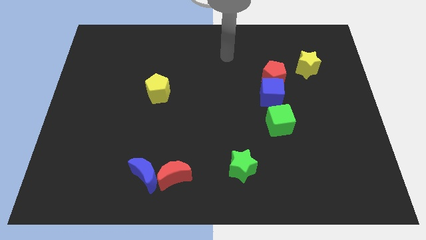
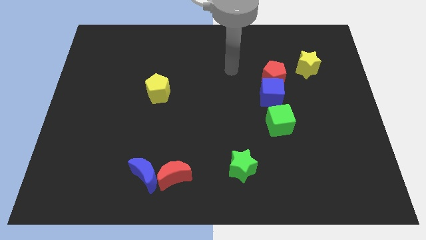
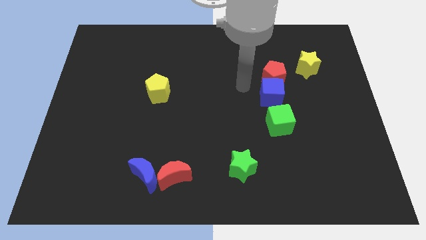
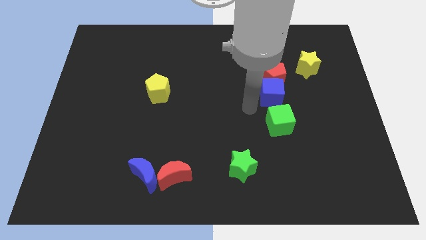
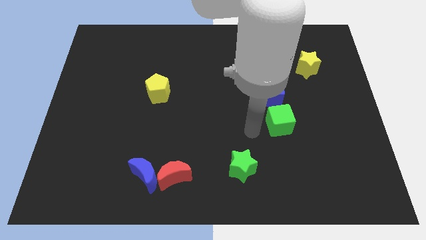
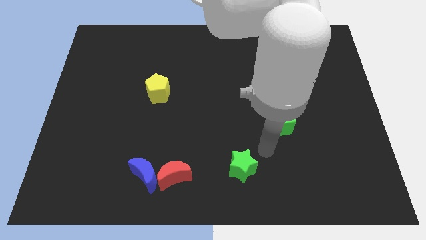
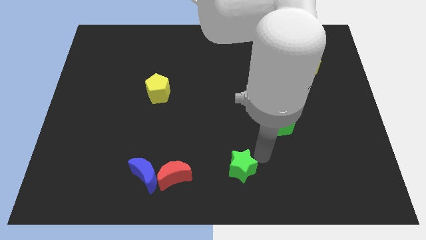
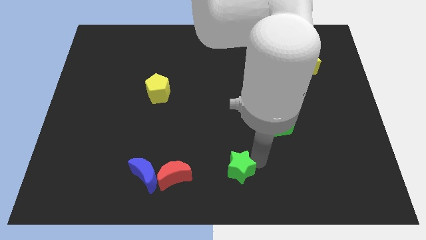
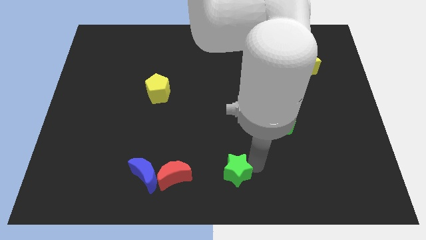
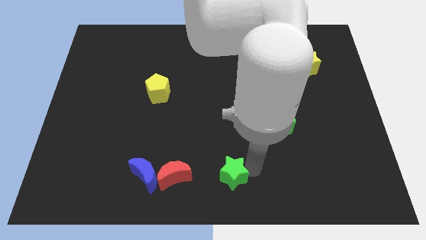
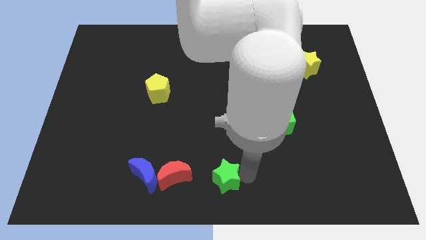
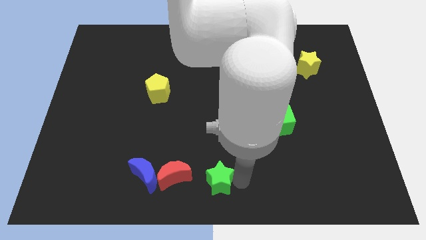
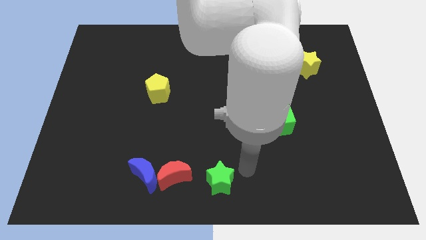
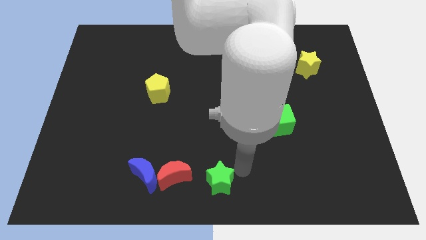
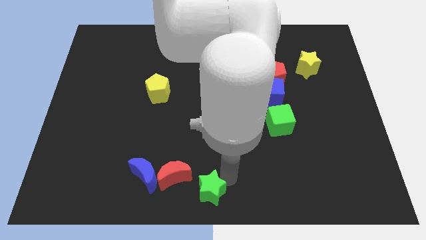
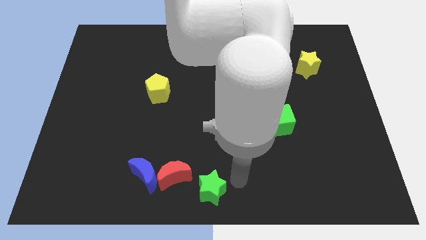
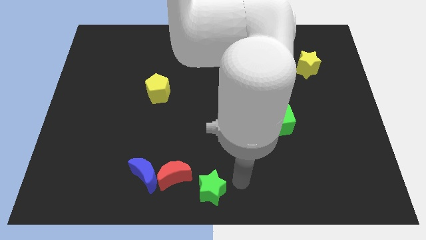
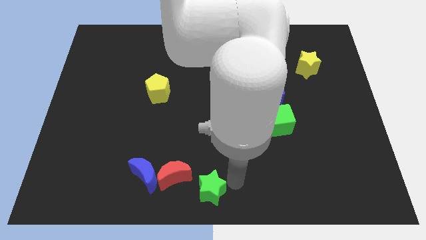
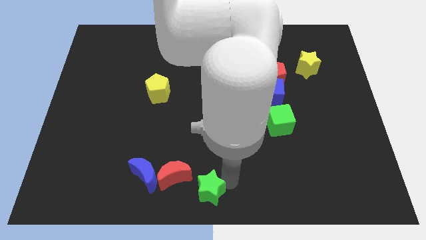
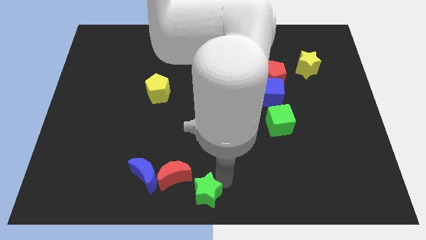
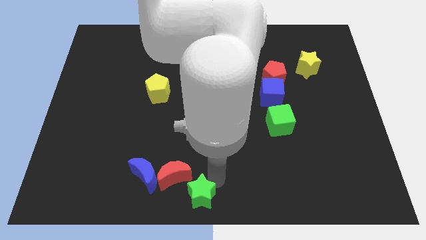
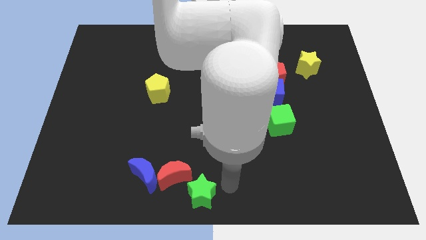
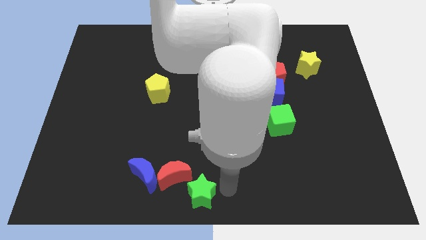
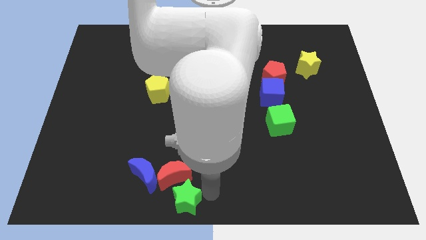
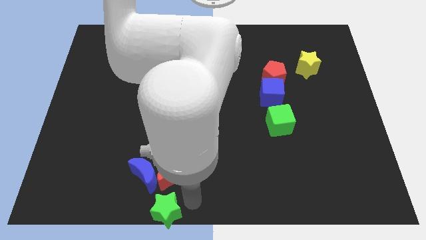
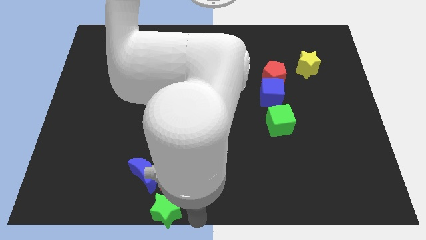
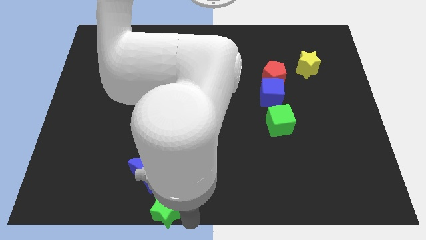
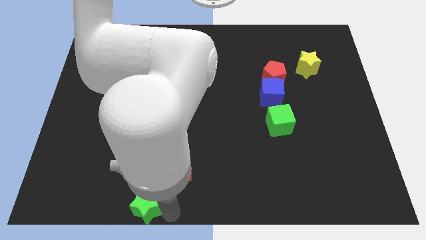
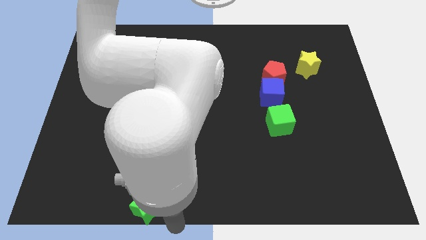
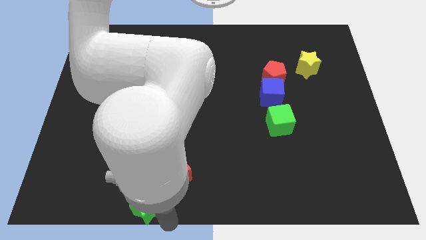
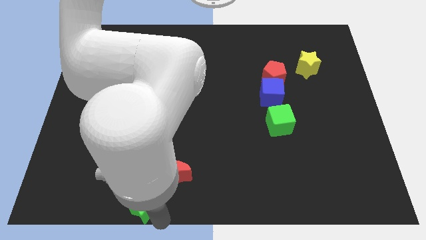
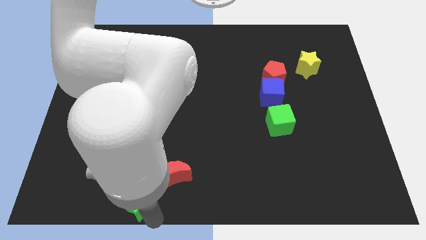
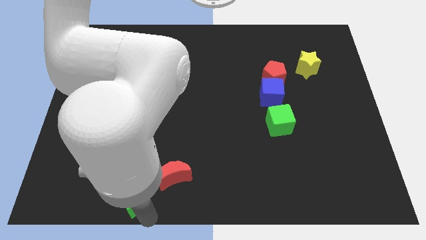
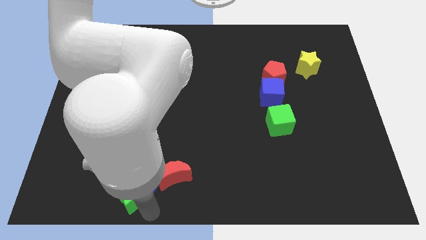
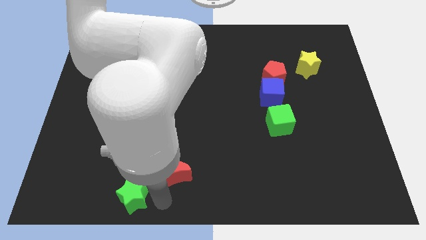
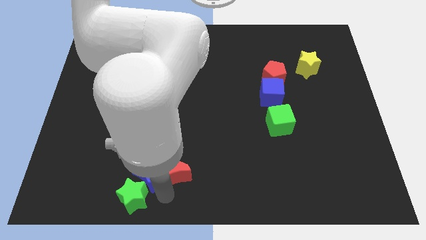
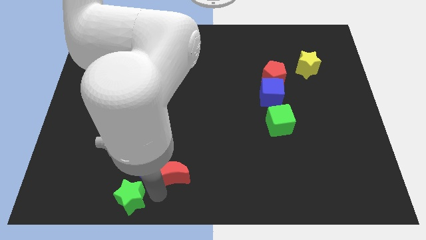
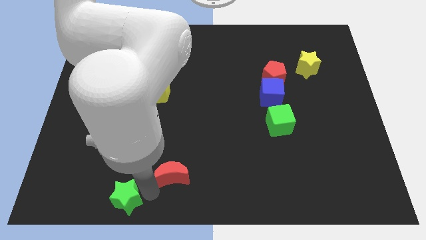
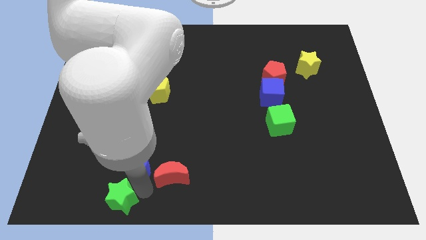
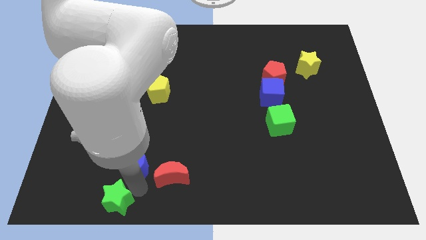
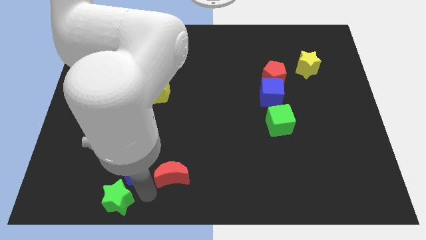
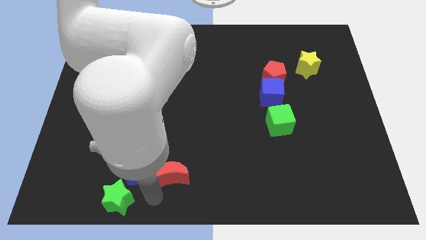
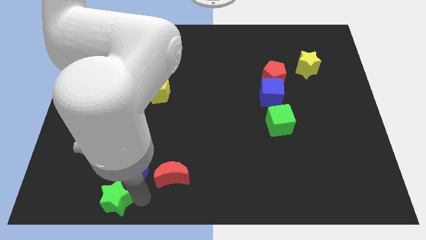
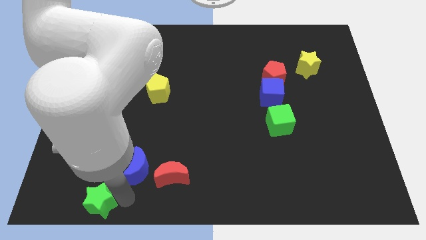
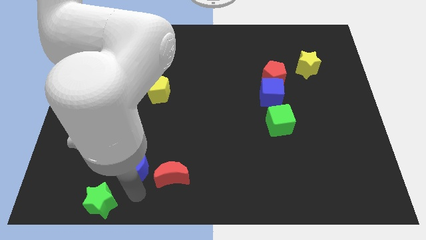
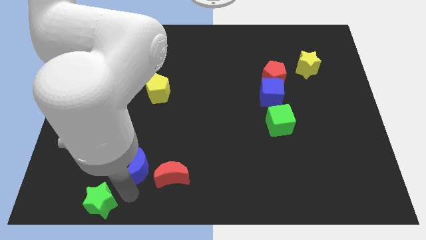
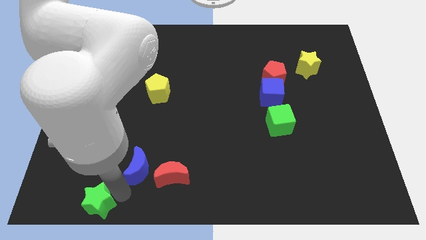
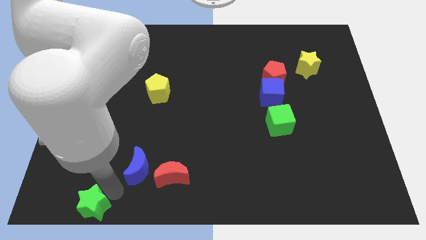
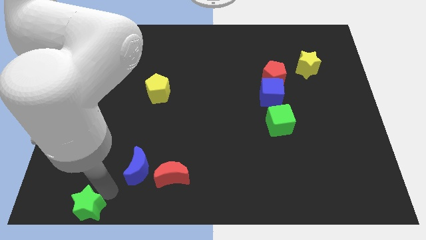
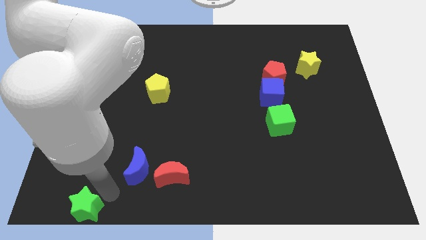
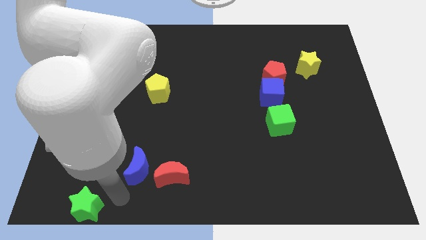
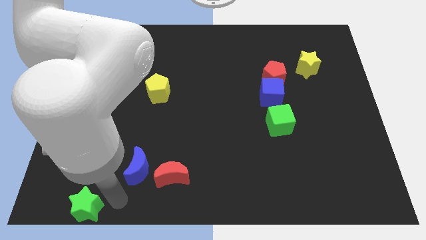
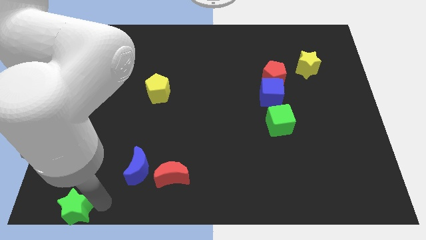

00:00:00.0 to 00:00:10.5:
slide the green star to the bottom left corner

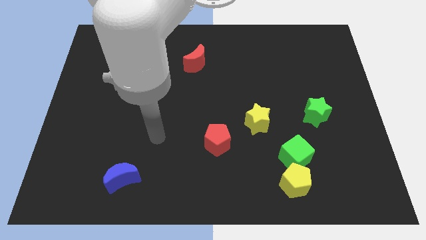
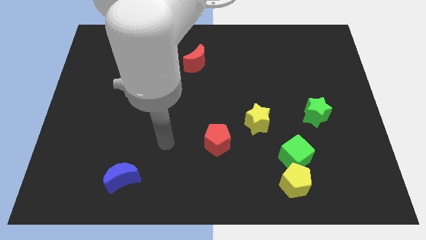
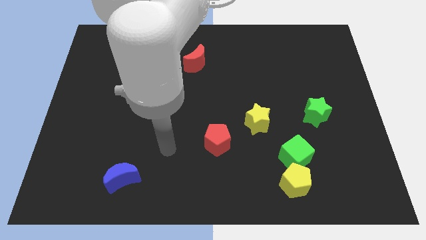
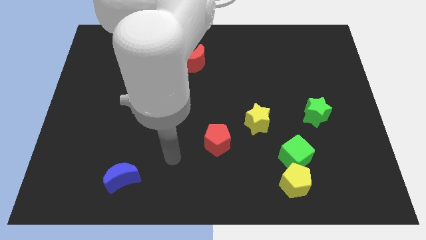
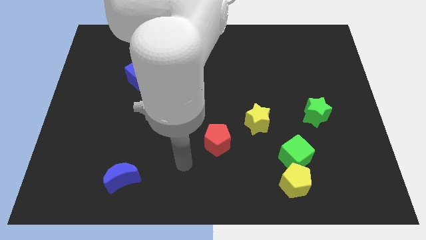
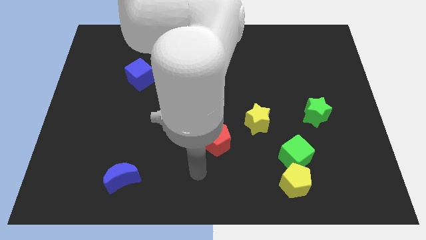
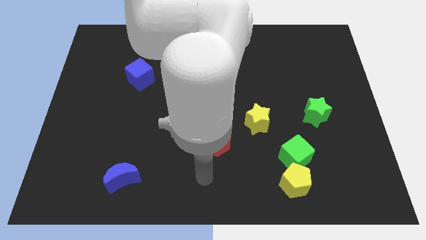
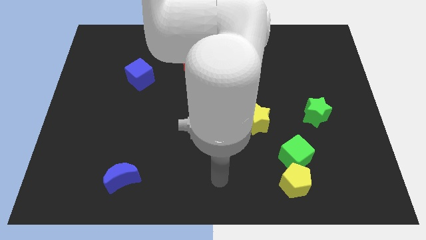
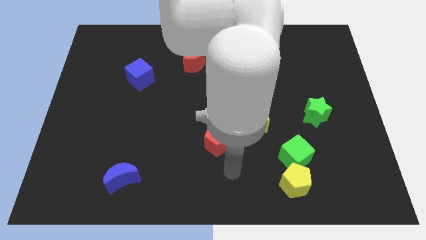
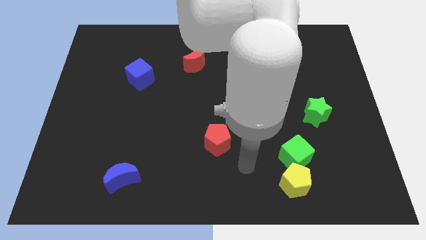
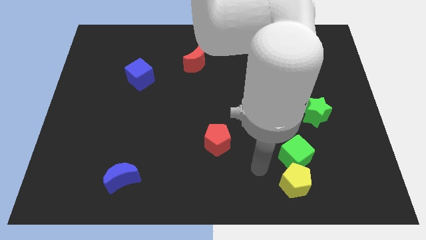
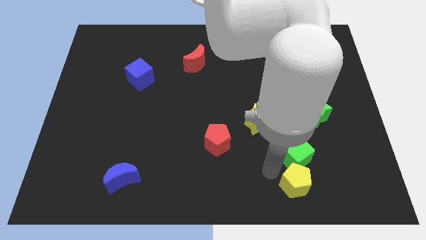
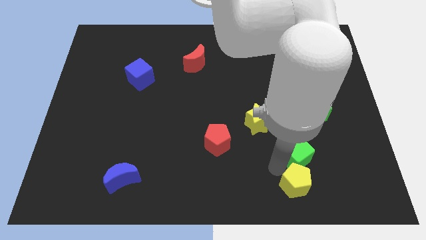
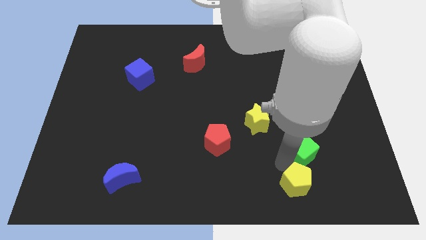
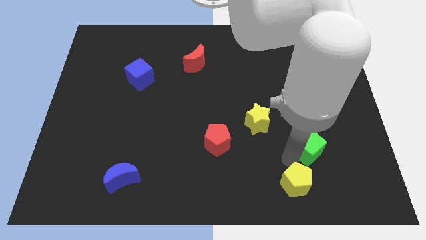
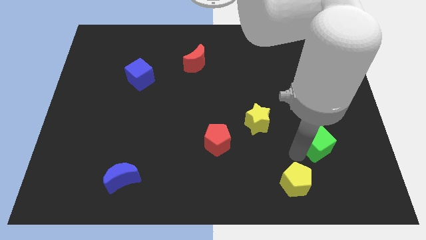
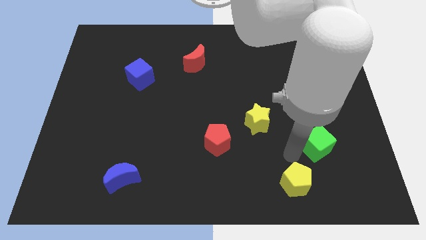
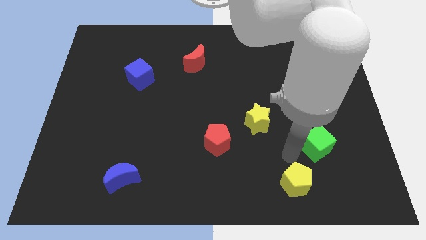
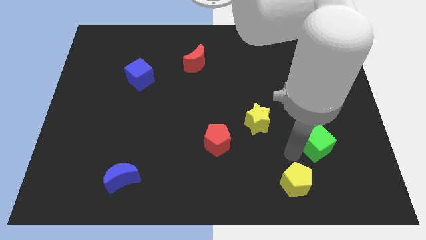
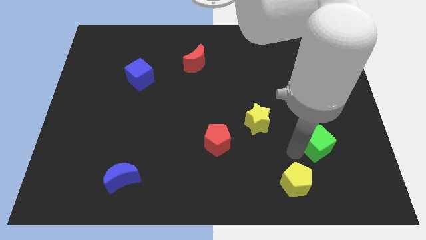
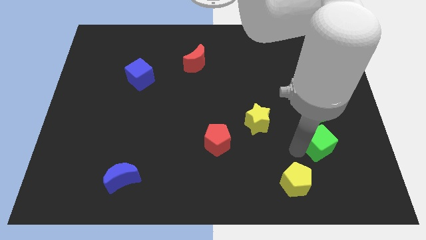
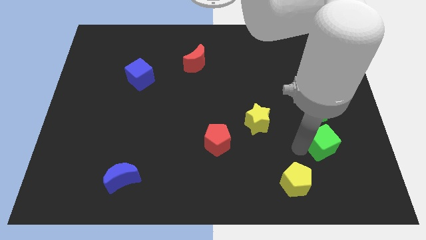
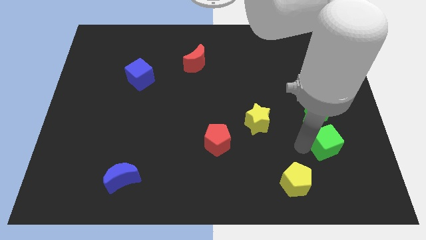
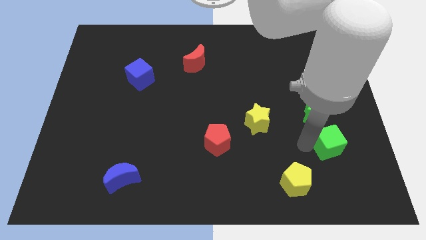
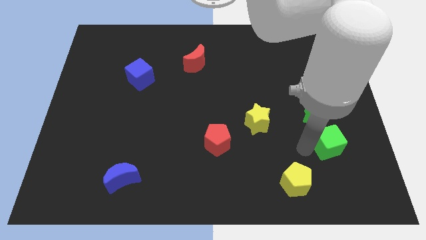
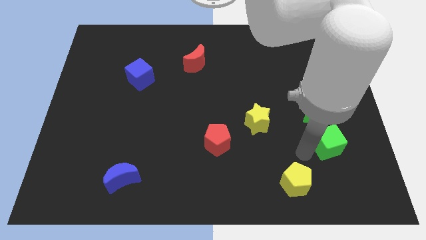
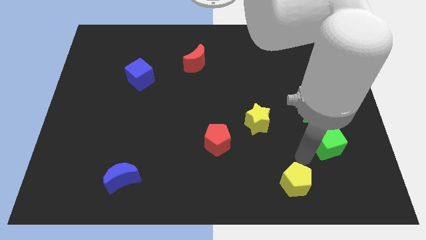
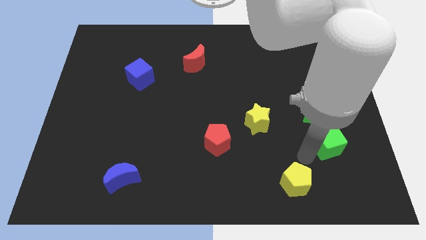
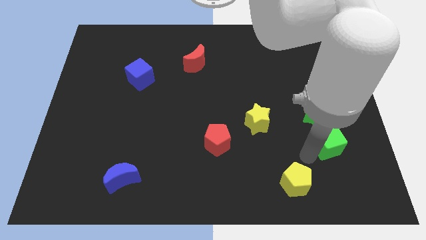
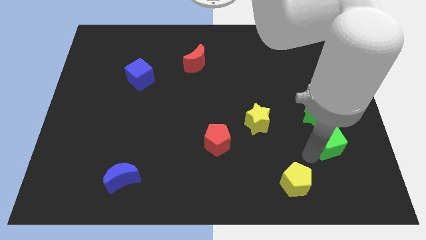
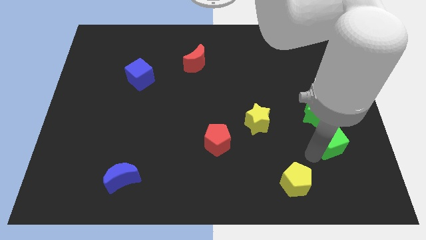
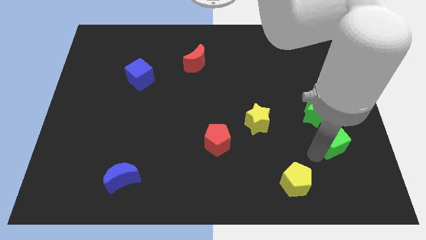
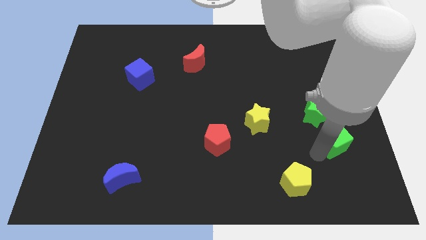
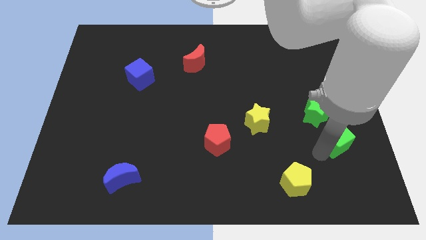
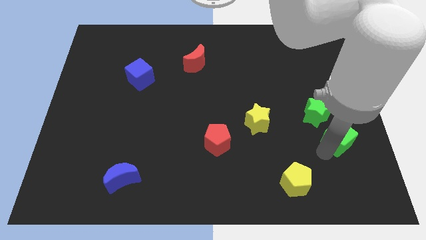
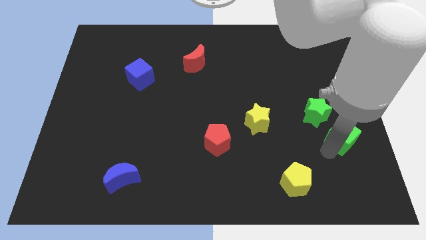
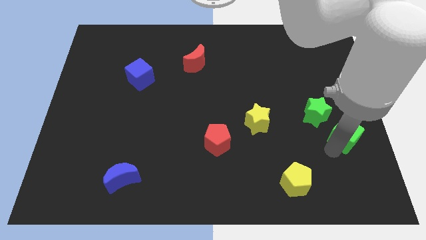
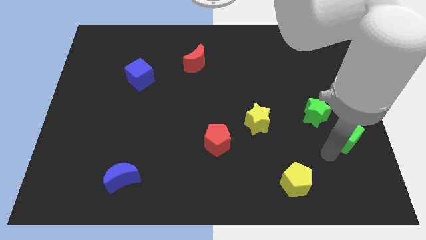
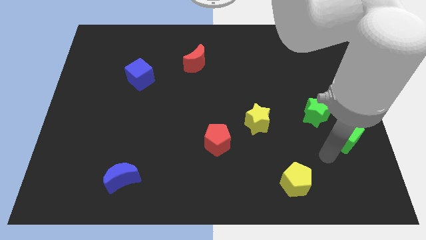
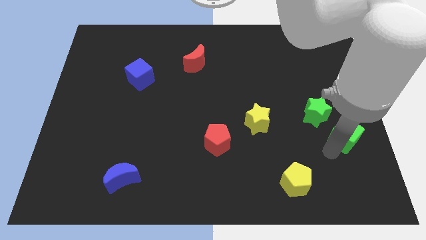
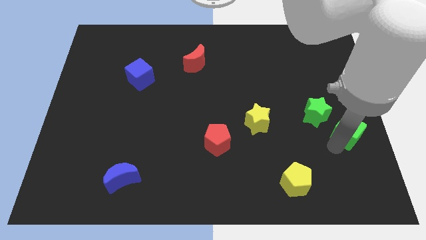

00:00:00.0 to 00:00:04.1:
push the green cube to the right side of the board
